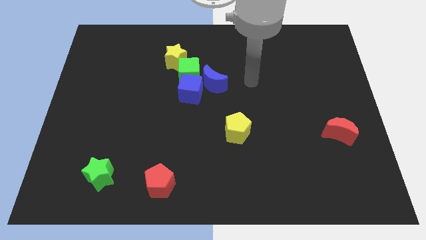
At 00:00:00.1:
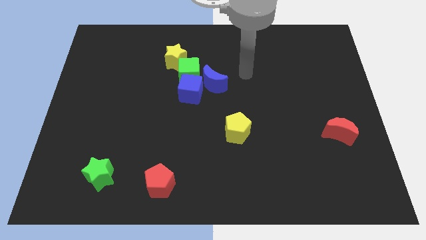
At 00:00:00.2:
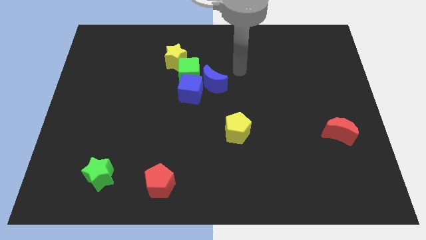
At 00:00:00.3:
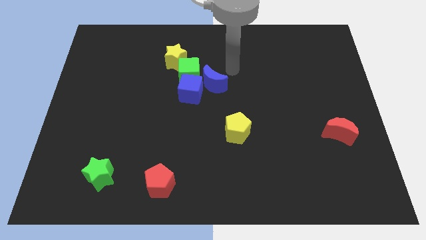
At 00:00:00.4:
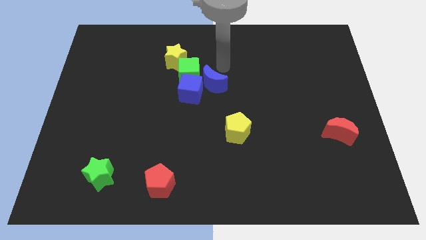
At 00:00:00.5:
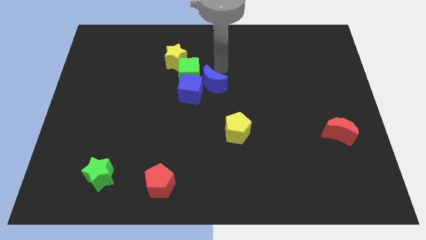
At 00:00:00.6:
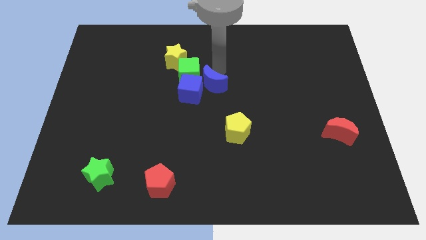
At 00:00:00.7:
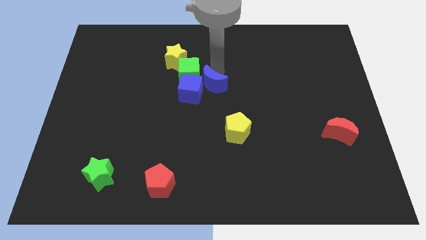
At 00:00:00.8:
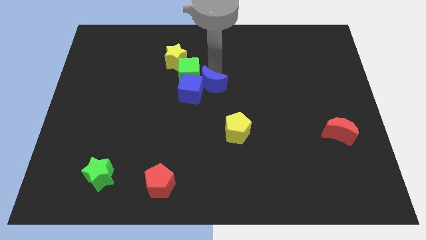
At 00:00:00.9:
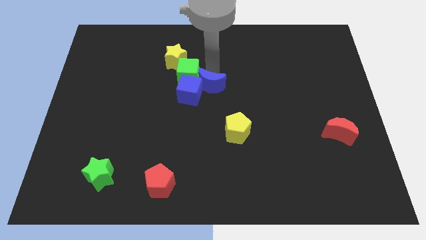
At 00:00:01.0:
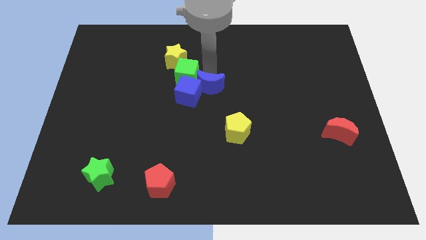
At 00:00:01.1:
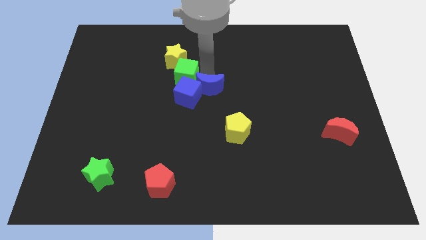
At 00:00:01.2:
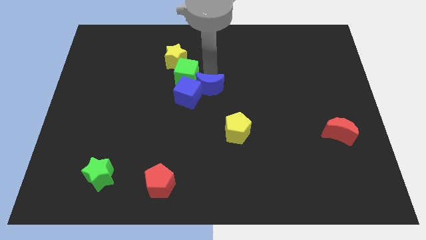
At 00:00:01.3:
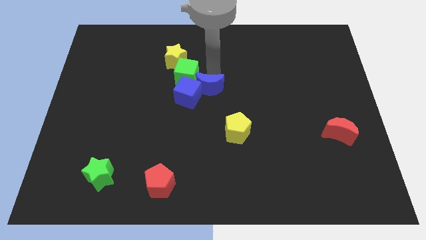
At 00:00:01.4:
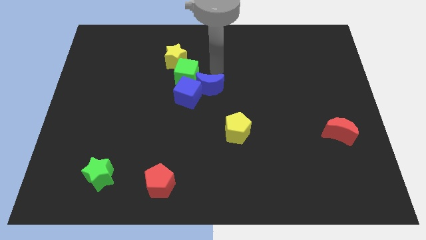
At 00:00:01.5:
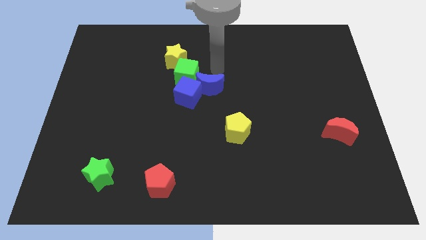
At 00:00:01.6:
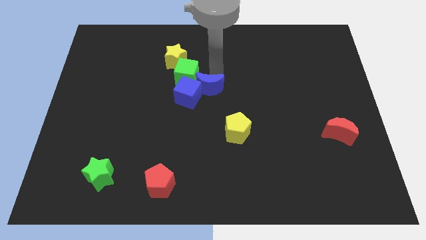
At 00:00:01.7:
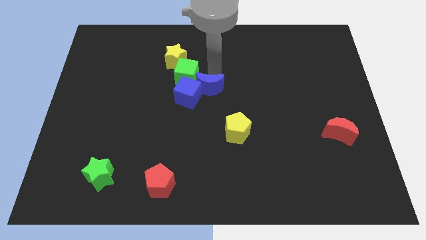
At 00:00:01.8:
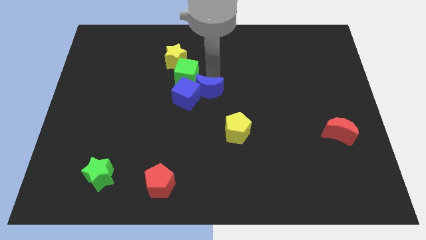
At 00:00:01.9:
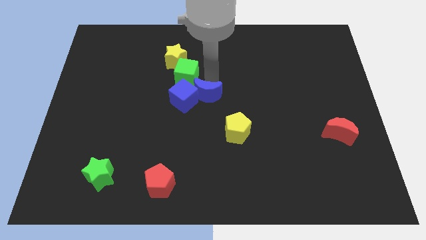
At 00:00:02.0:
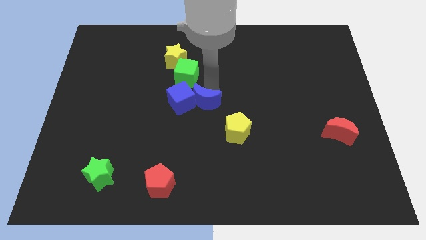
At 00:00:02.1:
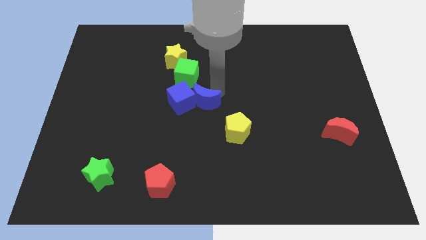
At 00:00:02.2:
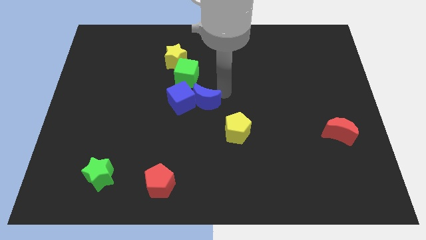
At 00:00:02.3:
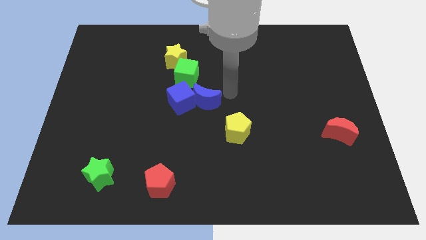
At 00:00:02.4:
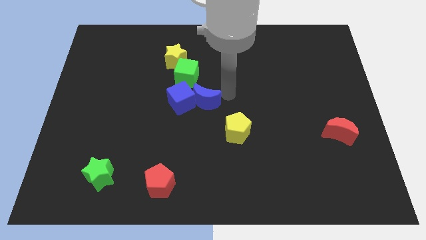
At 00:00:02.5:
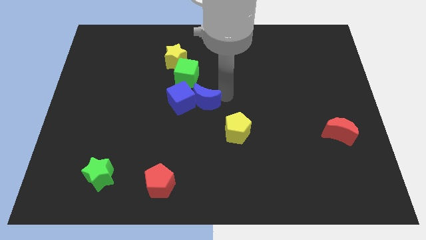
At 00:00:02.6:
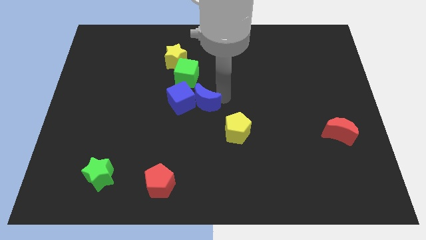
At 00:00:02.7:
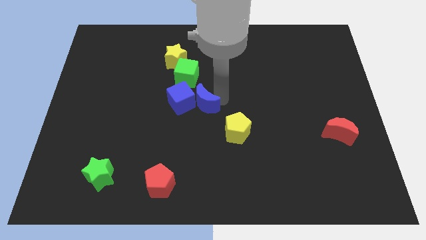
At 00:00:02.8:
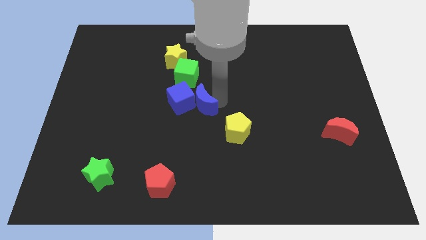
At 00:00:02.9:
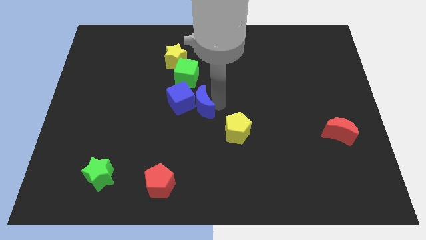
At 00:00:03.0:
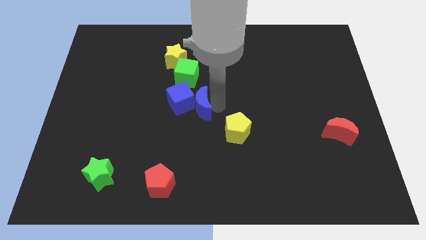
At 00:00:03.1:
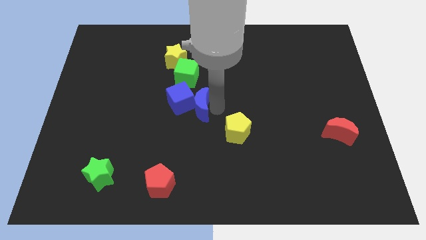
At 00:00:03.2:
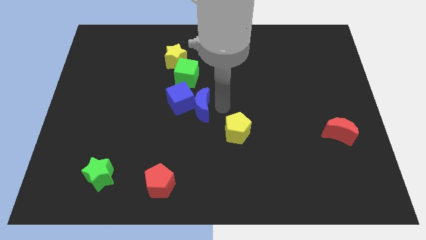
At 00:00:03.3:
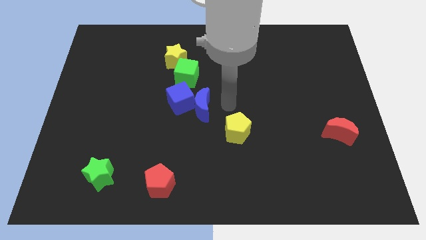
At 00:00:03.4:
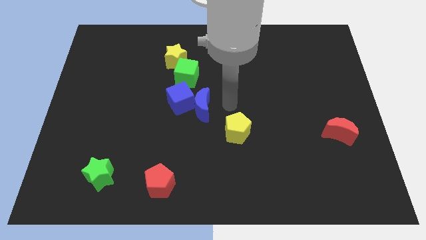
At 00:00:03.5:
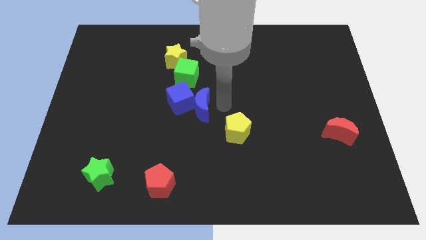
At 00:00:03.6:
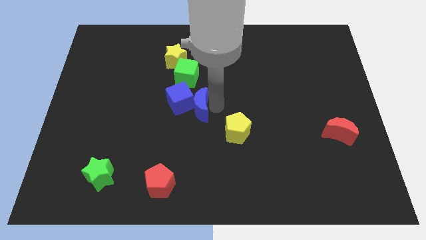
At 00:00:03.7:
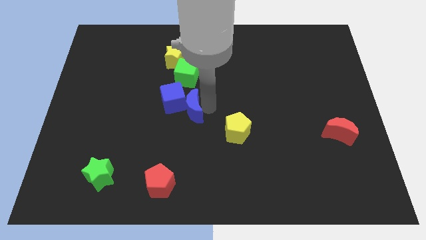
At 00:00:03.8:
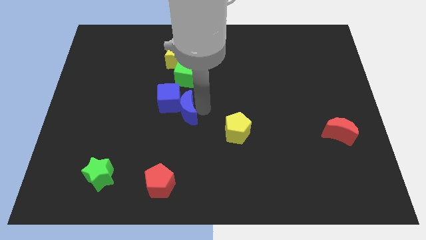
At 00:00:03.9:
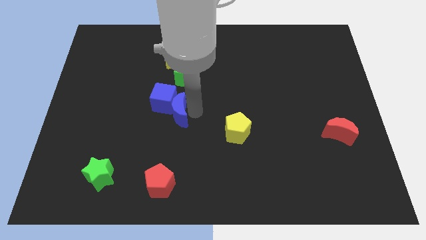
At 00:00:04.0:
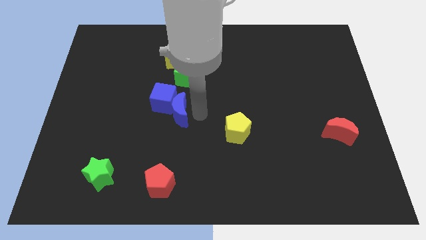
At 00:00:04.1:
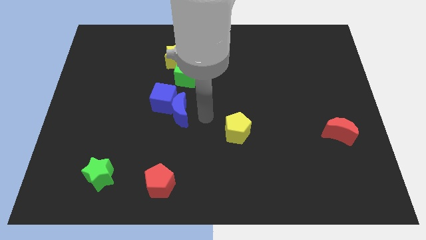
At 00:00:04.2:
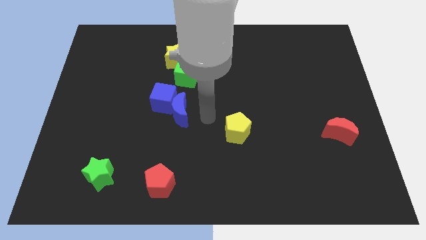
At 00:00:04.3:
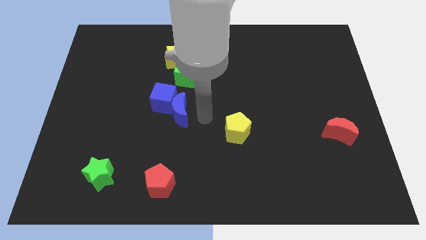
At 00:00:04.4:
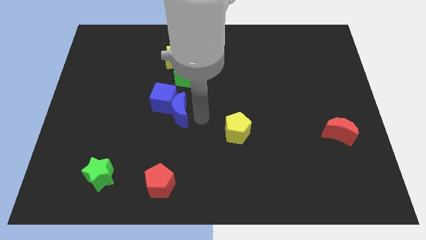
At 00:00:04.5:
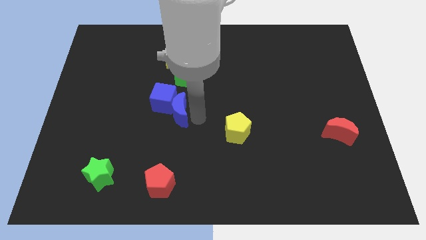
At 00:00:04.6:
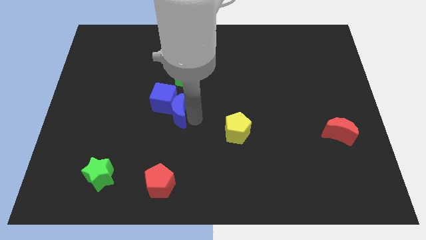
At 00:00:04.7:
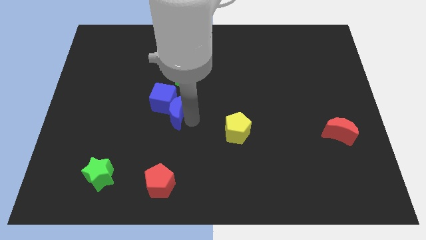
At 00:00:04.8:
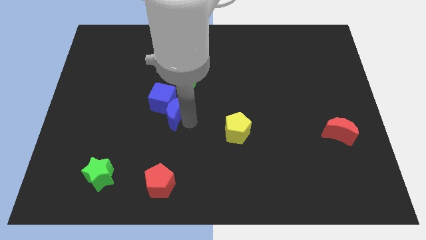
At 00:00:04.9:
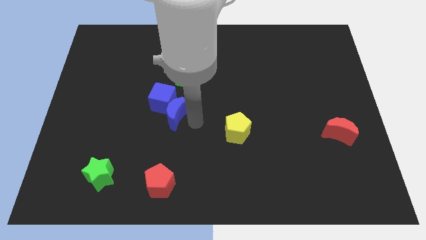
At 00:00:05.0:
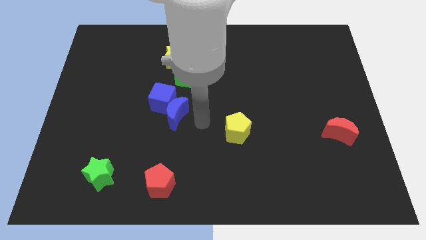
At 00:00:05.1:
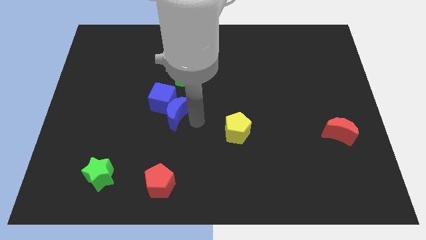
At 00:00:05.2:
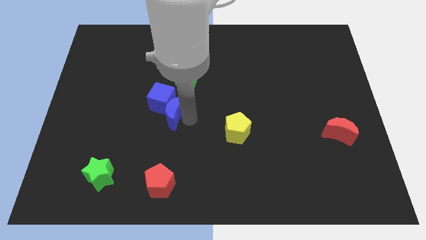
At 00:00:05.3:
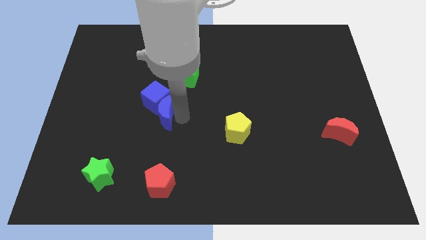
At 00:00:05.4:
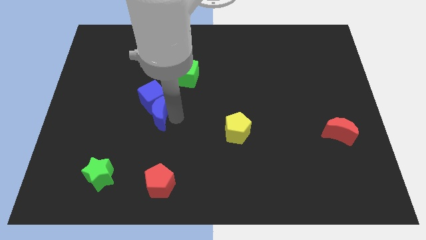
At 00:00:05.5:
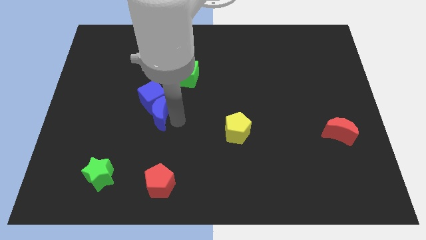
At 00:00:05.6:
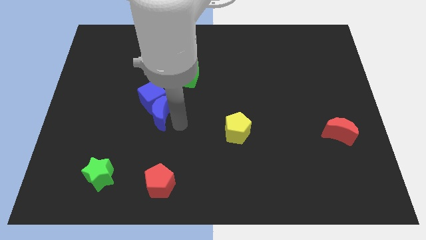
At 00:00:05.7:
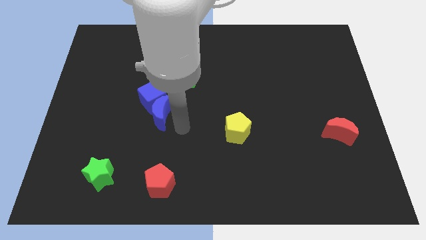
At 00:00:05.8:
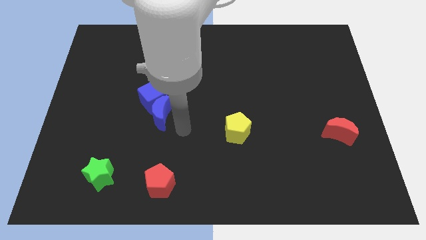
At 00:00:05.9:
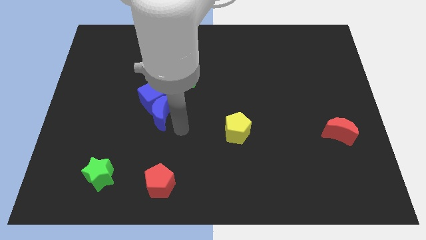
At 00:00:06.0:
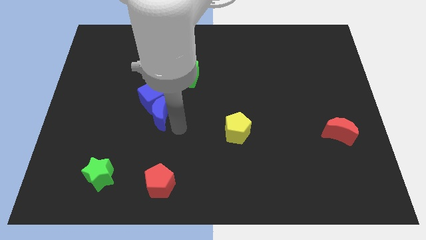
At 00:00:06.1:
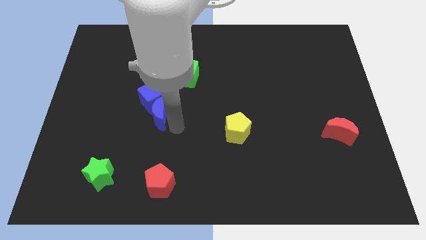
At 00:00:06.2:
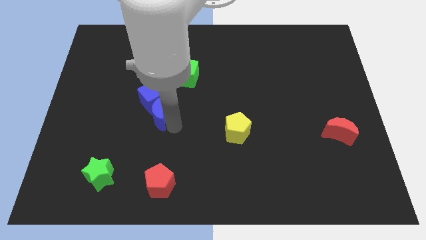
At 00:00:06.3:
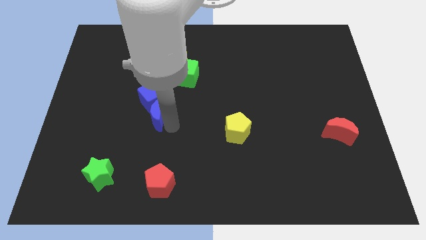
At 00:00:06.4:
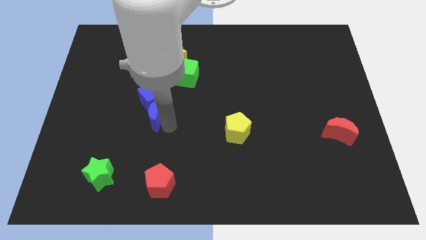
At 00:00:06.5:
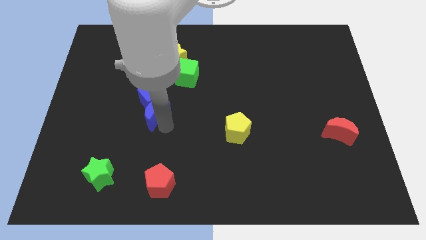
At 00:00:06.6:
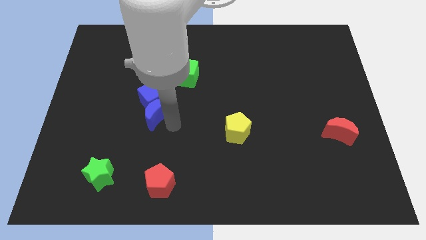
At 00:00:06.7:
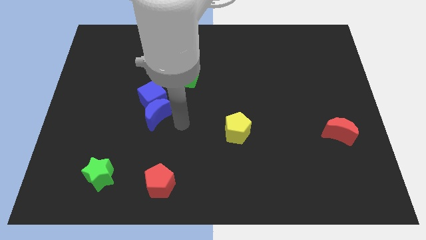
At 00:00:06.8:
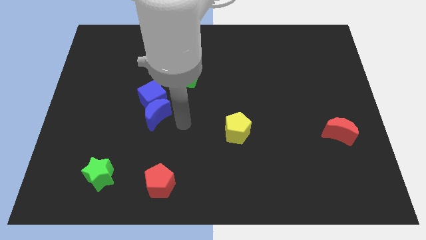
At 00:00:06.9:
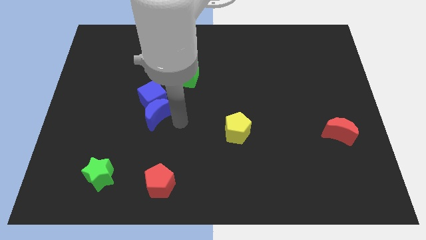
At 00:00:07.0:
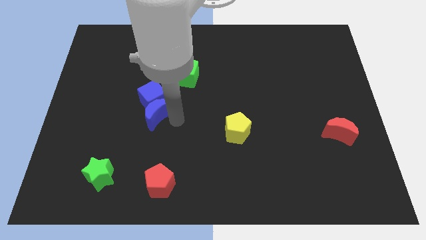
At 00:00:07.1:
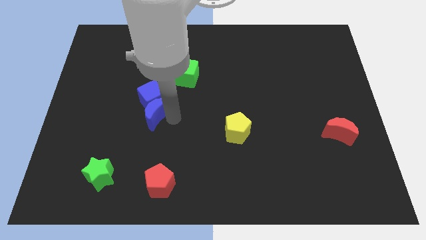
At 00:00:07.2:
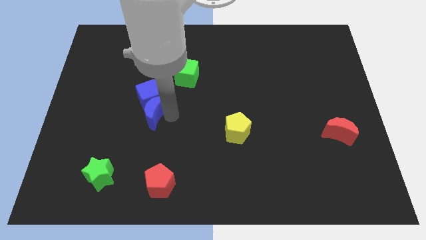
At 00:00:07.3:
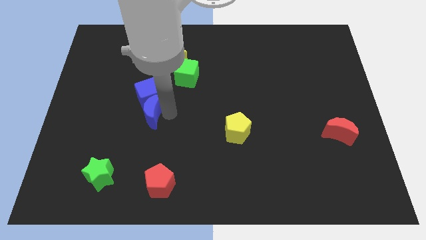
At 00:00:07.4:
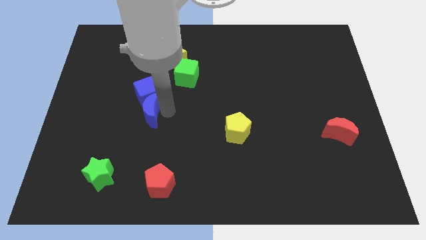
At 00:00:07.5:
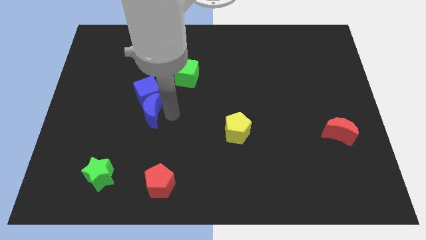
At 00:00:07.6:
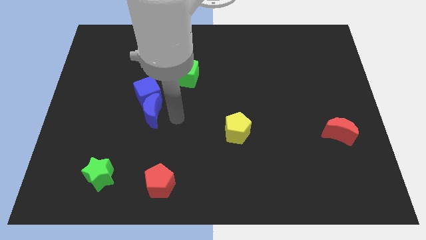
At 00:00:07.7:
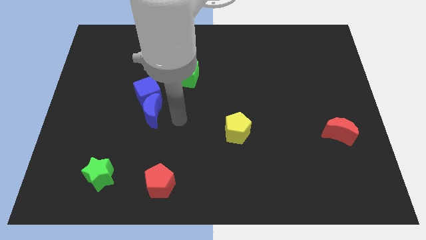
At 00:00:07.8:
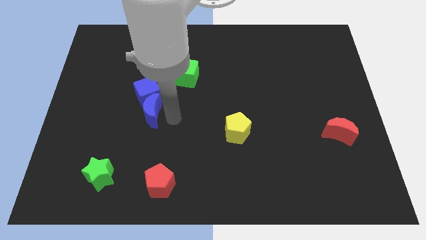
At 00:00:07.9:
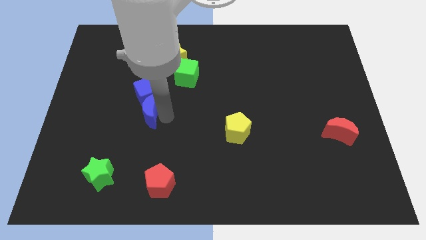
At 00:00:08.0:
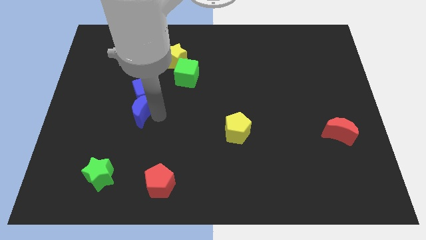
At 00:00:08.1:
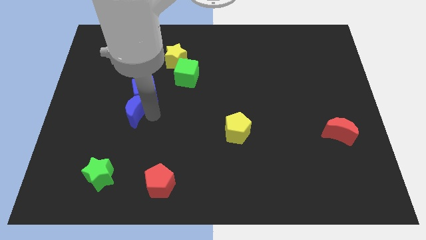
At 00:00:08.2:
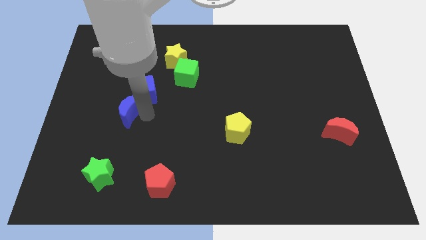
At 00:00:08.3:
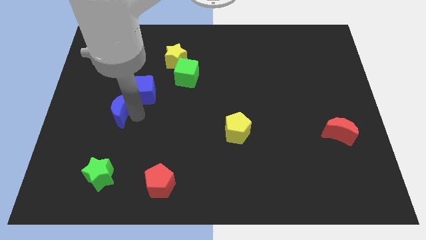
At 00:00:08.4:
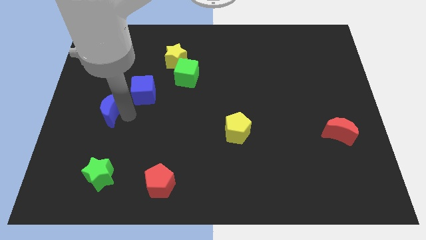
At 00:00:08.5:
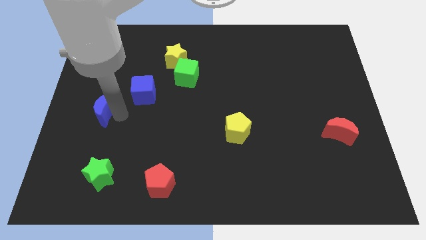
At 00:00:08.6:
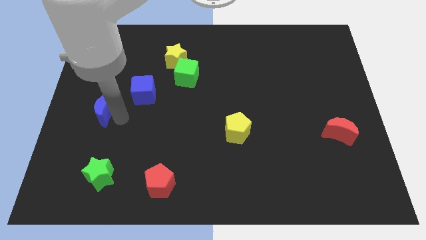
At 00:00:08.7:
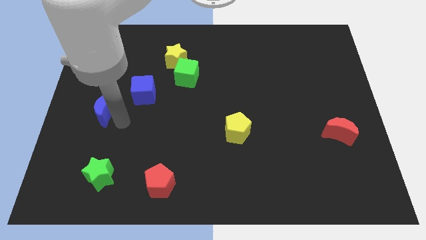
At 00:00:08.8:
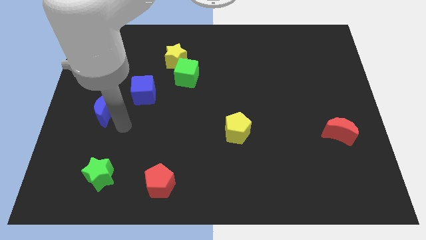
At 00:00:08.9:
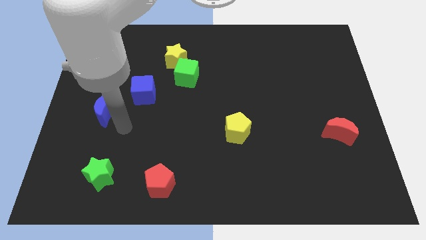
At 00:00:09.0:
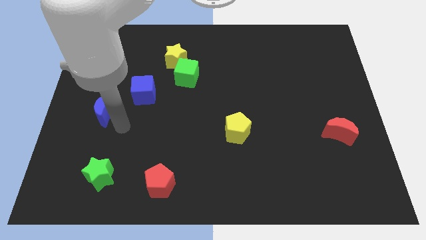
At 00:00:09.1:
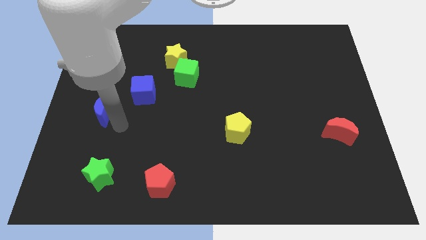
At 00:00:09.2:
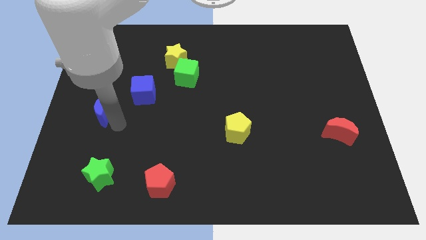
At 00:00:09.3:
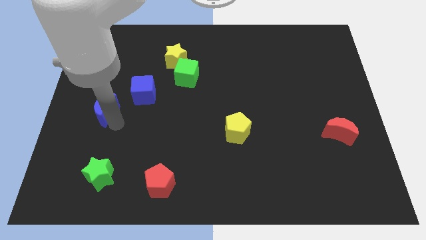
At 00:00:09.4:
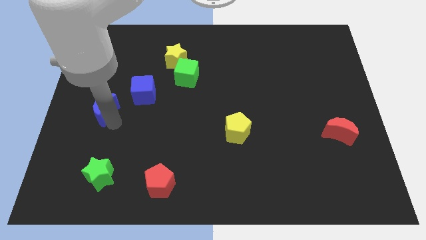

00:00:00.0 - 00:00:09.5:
push the blue moon to the center left
